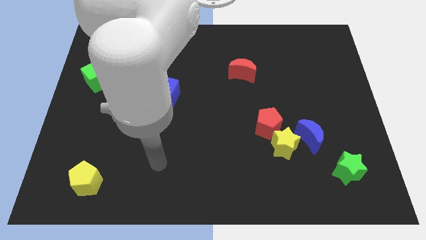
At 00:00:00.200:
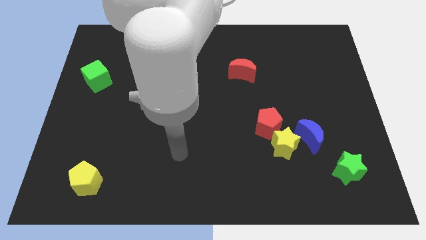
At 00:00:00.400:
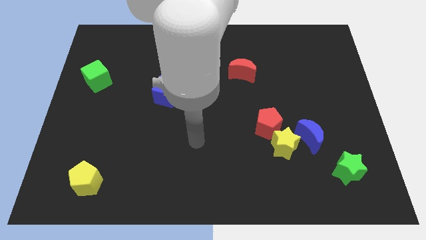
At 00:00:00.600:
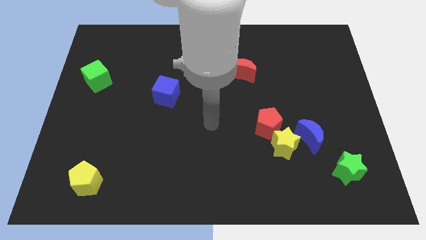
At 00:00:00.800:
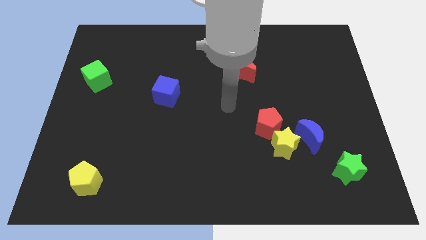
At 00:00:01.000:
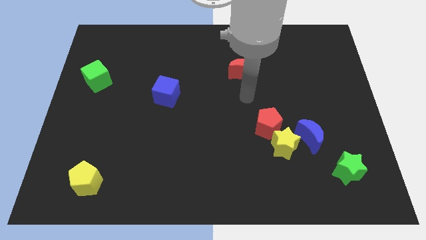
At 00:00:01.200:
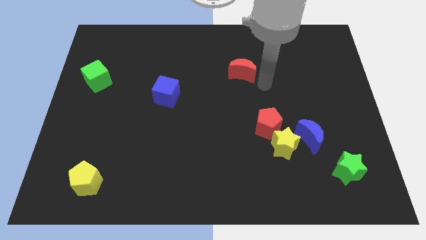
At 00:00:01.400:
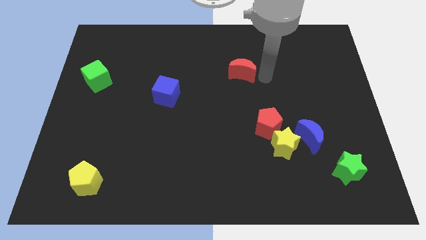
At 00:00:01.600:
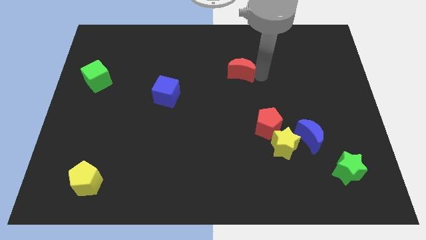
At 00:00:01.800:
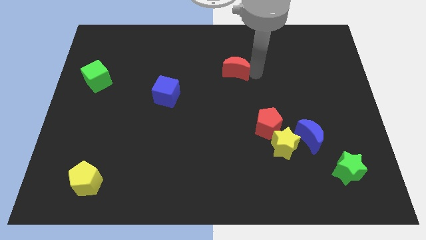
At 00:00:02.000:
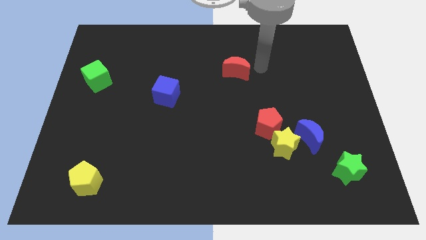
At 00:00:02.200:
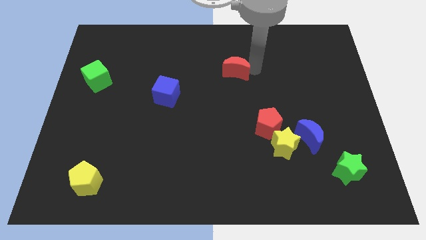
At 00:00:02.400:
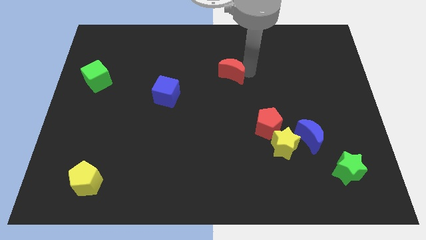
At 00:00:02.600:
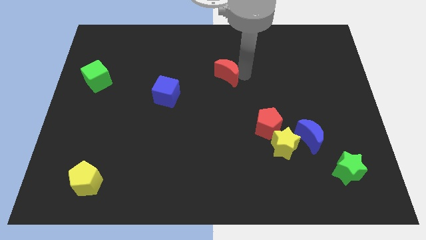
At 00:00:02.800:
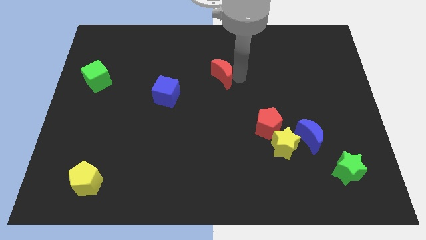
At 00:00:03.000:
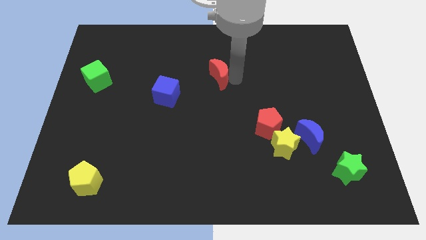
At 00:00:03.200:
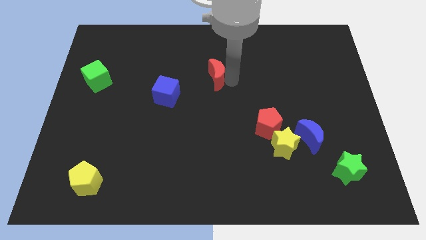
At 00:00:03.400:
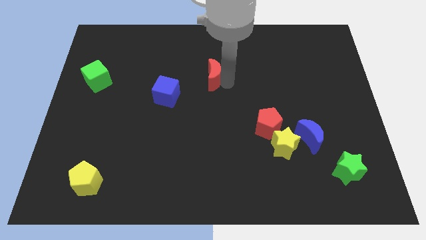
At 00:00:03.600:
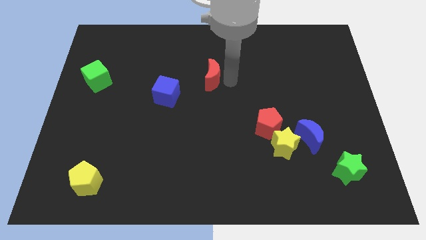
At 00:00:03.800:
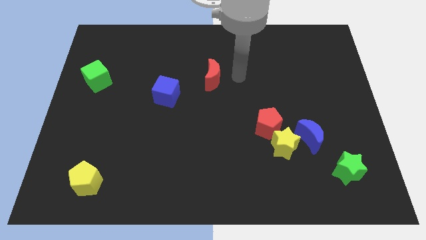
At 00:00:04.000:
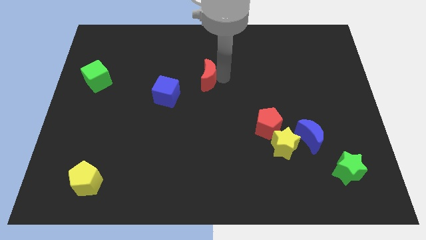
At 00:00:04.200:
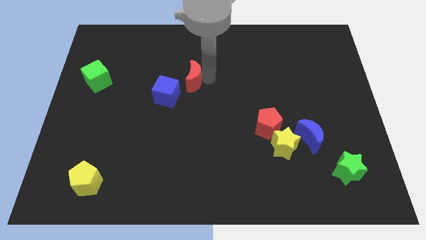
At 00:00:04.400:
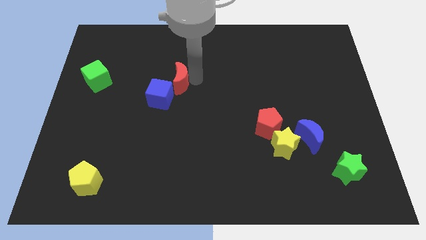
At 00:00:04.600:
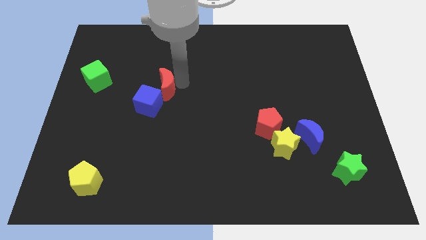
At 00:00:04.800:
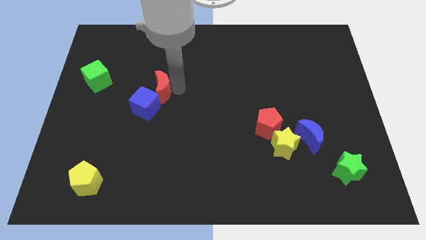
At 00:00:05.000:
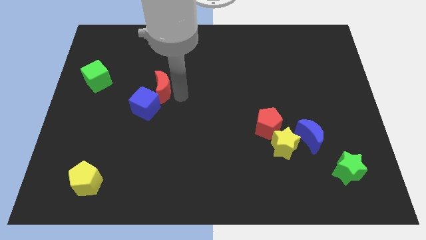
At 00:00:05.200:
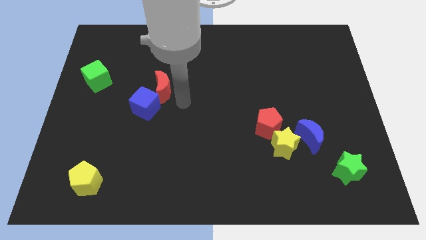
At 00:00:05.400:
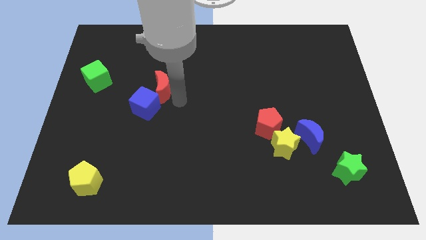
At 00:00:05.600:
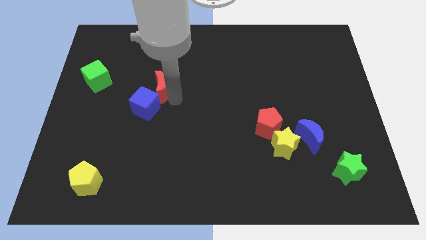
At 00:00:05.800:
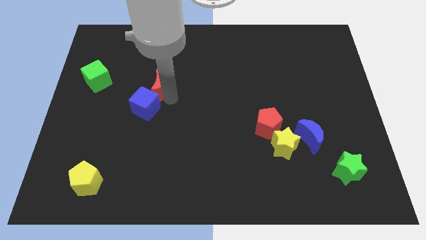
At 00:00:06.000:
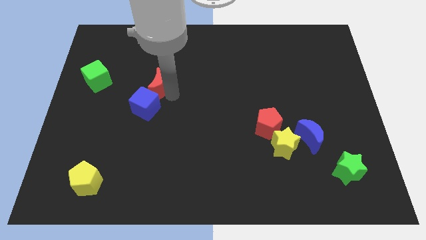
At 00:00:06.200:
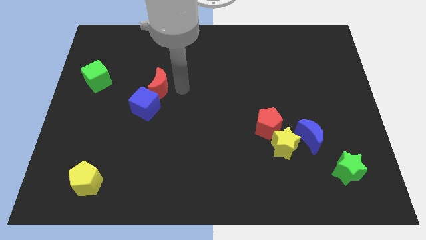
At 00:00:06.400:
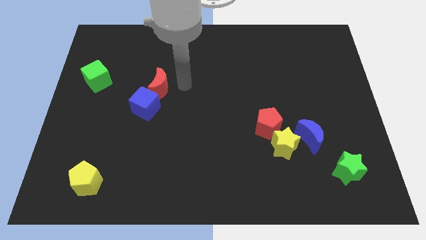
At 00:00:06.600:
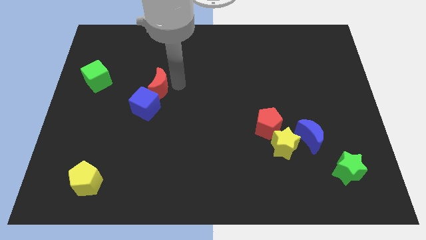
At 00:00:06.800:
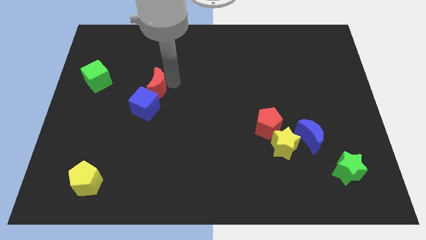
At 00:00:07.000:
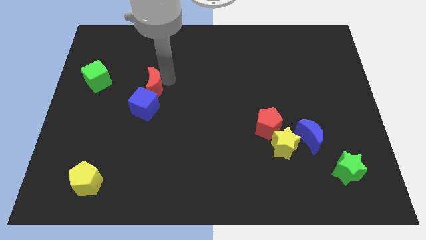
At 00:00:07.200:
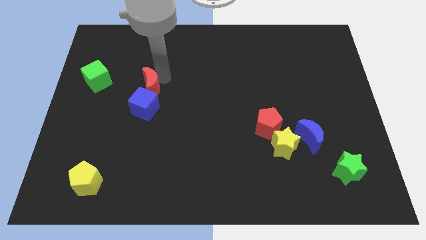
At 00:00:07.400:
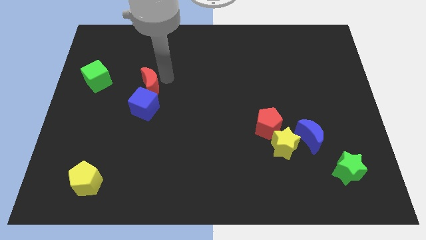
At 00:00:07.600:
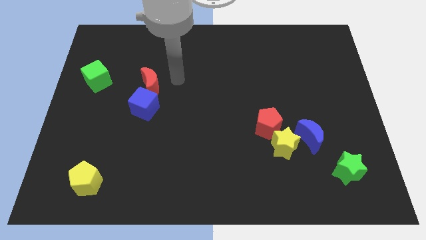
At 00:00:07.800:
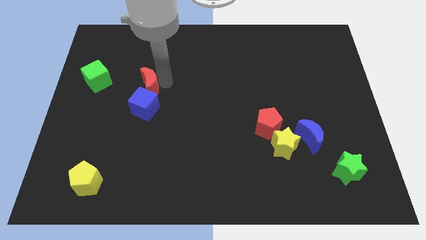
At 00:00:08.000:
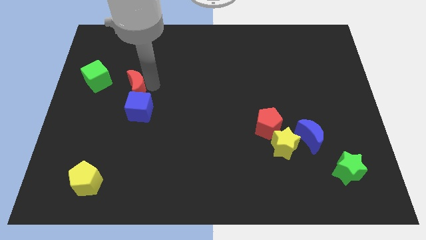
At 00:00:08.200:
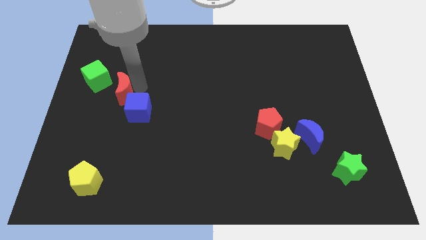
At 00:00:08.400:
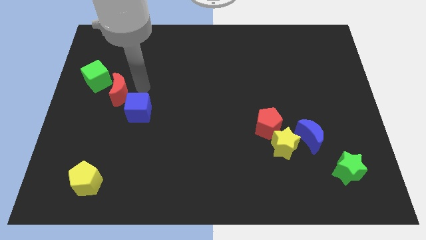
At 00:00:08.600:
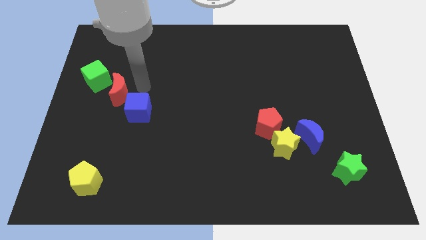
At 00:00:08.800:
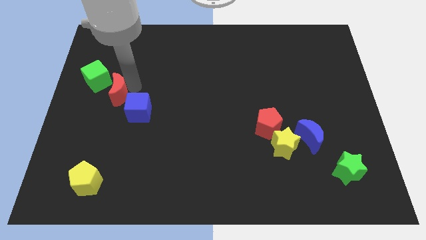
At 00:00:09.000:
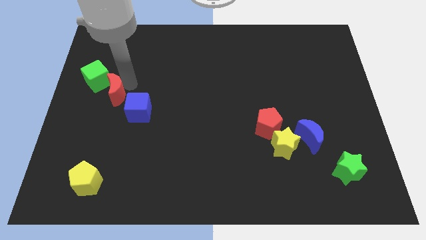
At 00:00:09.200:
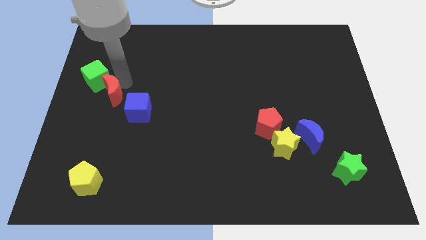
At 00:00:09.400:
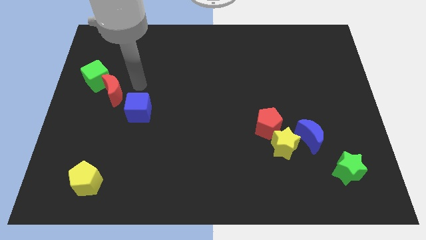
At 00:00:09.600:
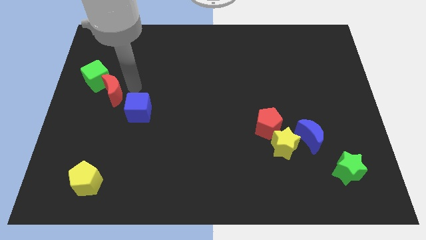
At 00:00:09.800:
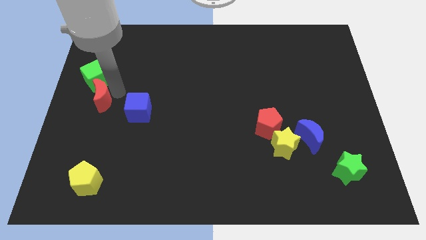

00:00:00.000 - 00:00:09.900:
put the red moon to the left side of the board
